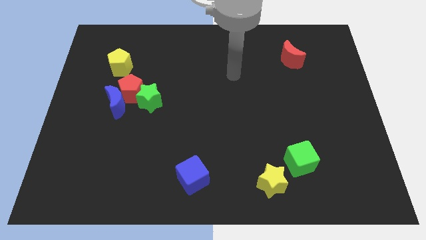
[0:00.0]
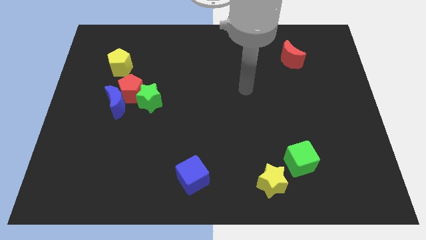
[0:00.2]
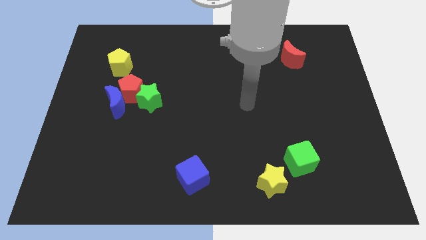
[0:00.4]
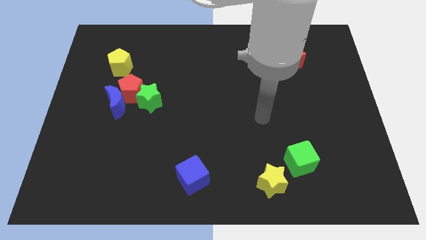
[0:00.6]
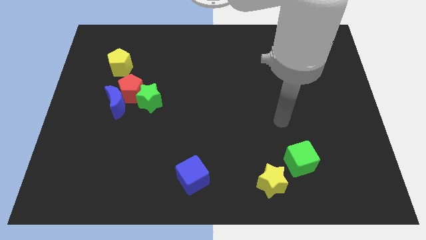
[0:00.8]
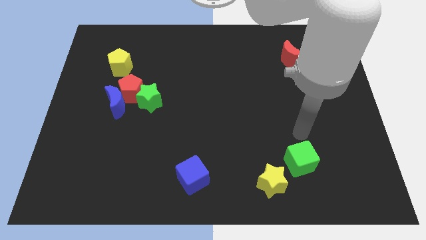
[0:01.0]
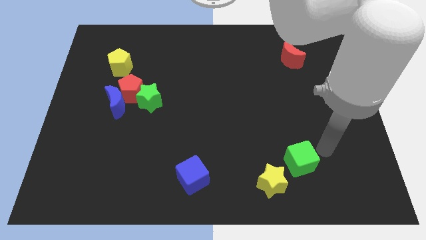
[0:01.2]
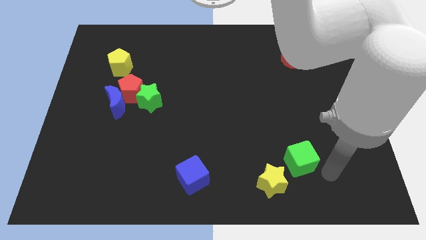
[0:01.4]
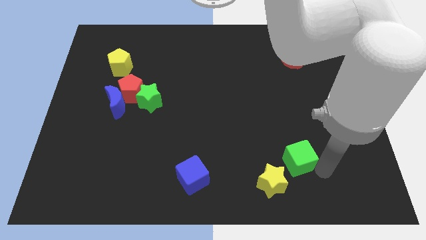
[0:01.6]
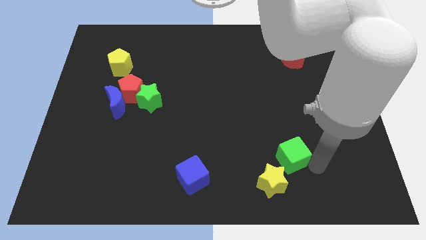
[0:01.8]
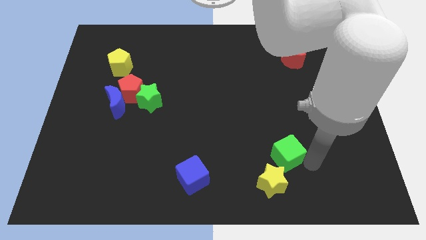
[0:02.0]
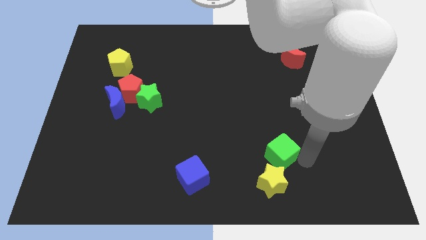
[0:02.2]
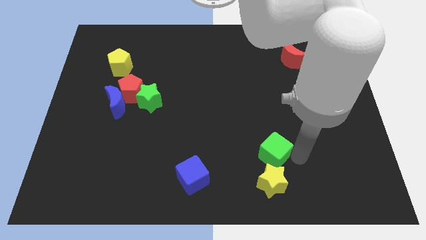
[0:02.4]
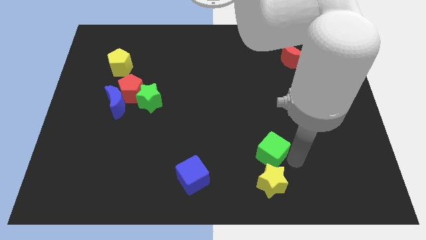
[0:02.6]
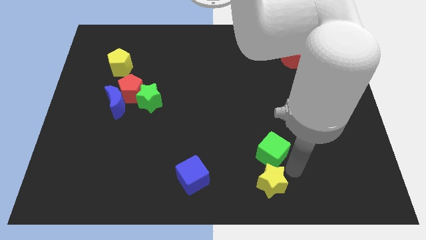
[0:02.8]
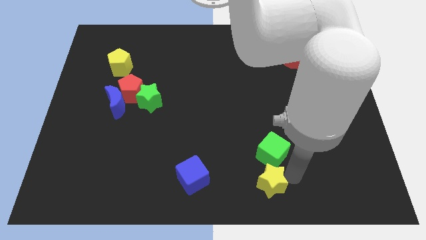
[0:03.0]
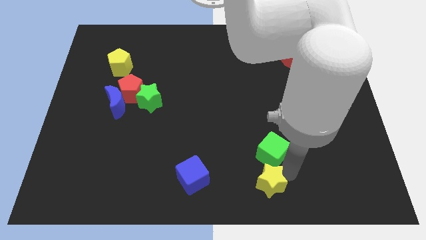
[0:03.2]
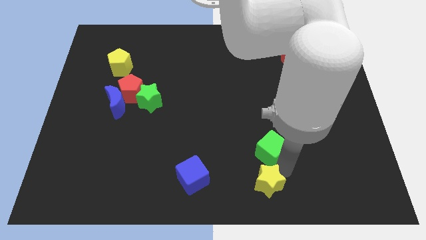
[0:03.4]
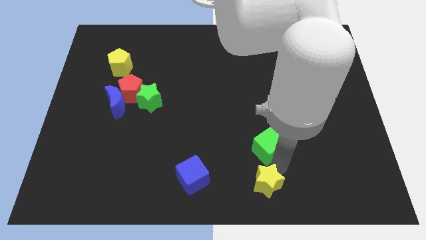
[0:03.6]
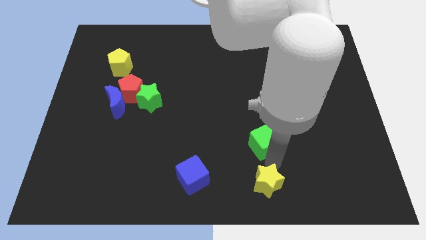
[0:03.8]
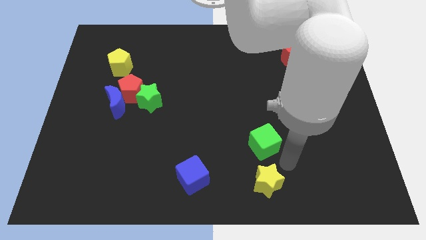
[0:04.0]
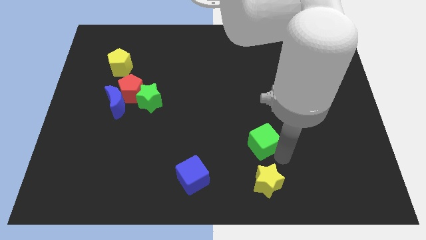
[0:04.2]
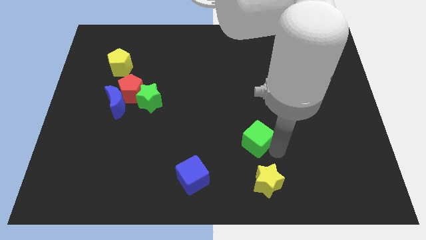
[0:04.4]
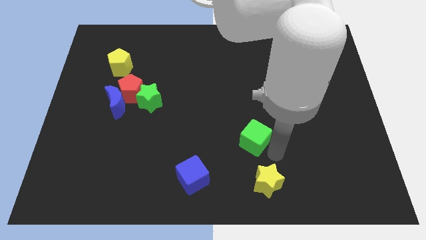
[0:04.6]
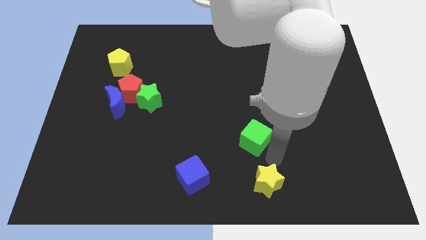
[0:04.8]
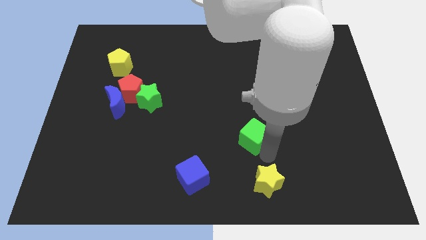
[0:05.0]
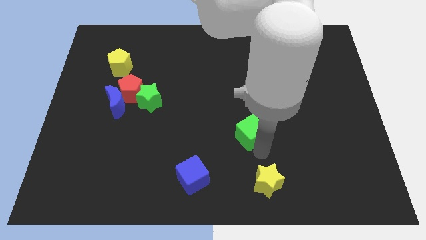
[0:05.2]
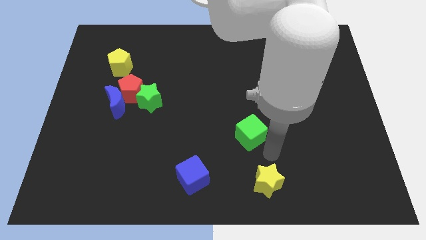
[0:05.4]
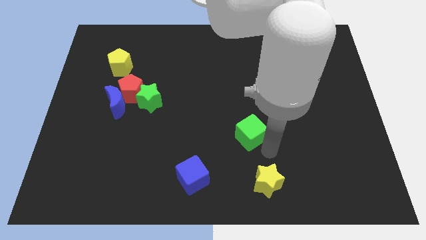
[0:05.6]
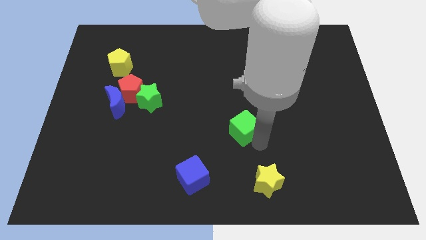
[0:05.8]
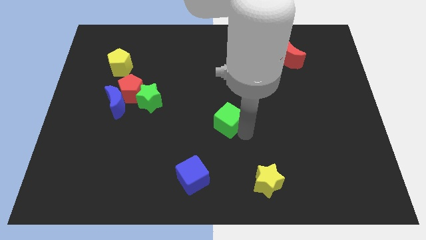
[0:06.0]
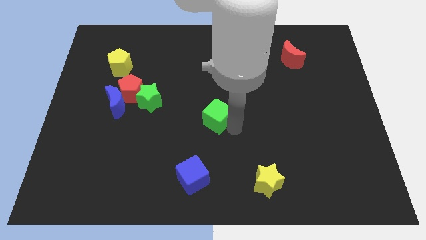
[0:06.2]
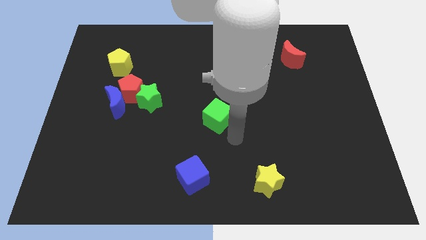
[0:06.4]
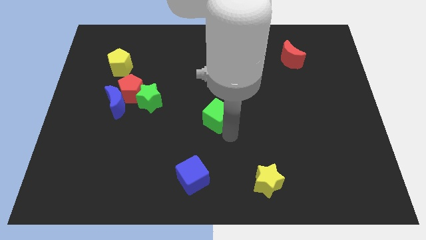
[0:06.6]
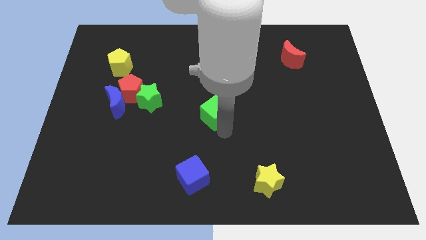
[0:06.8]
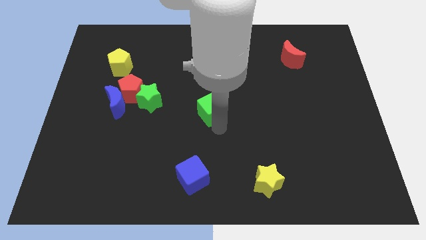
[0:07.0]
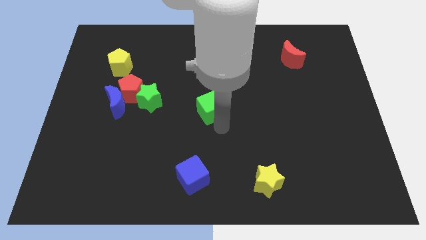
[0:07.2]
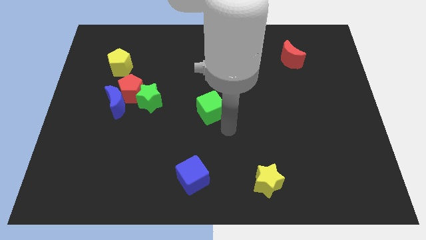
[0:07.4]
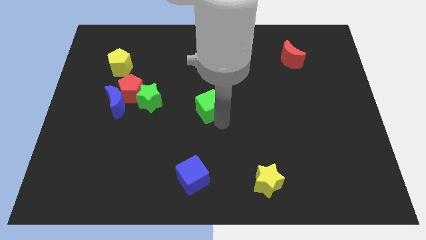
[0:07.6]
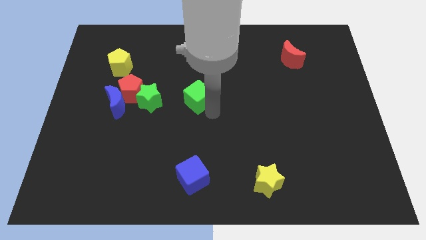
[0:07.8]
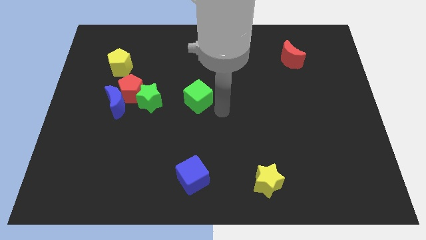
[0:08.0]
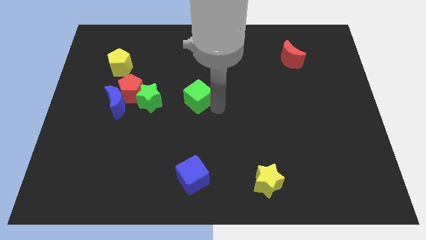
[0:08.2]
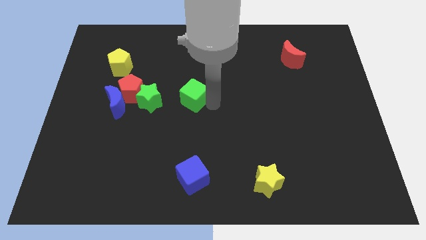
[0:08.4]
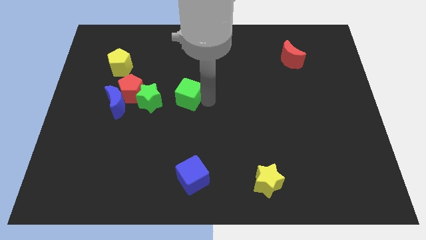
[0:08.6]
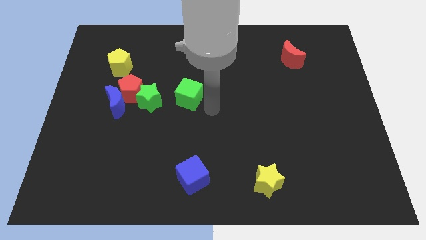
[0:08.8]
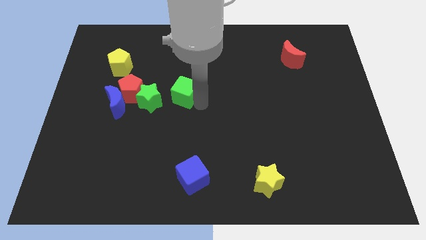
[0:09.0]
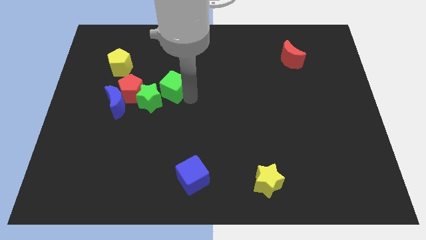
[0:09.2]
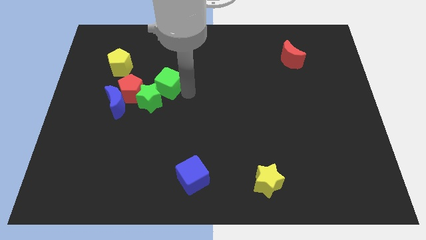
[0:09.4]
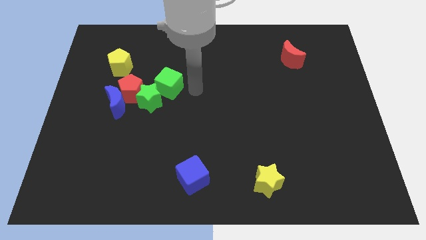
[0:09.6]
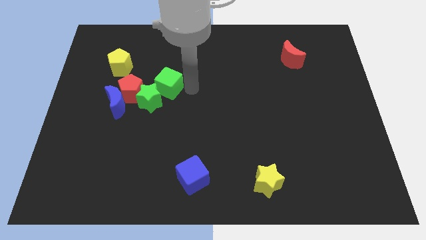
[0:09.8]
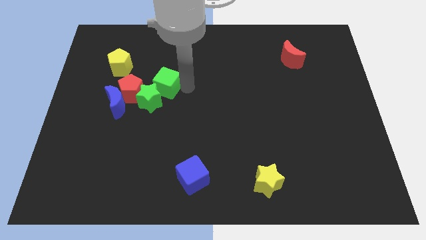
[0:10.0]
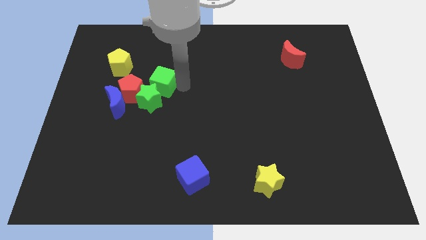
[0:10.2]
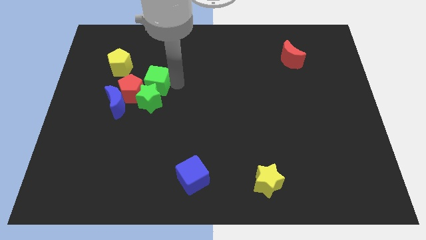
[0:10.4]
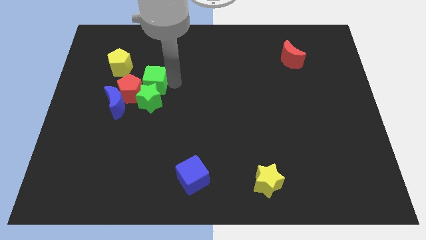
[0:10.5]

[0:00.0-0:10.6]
put the green cube towards the red pentagon
